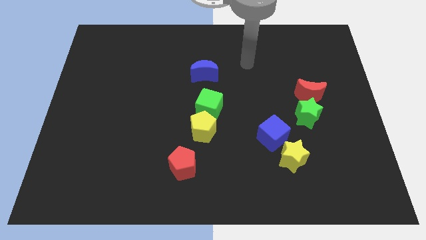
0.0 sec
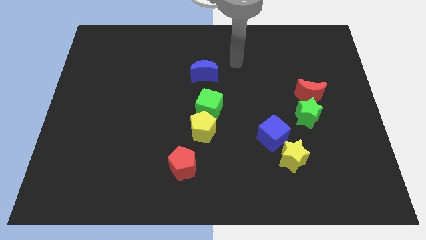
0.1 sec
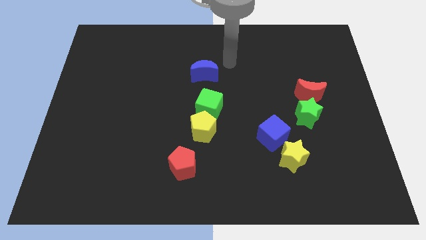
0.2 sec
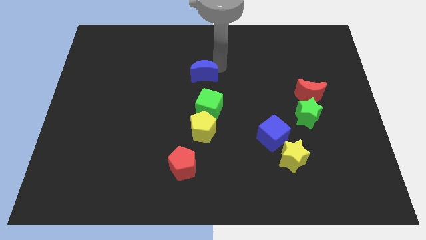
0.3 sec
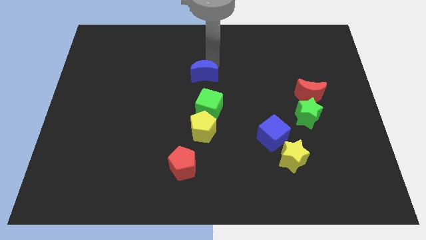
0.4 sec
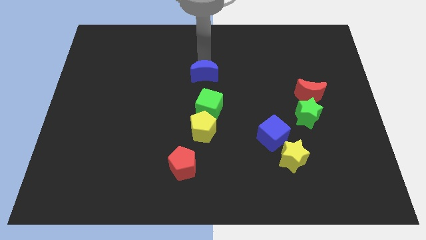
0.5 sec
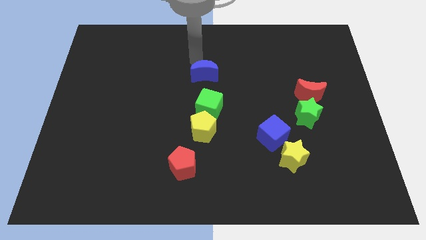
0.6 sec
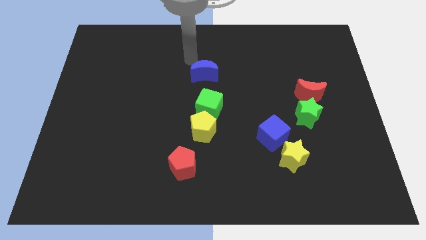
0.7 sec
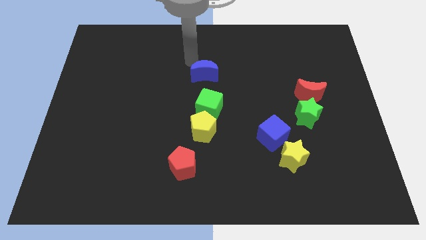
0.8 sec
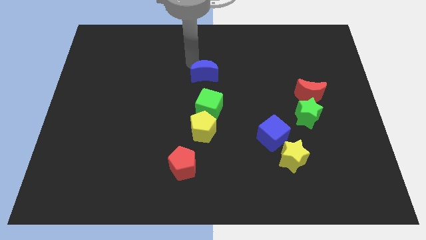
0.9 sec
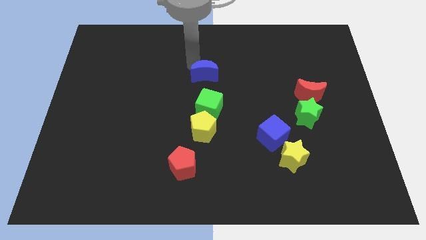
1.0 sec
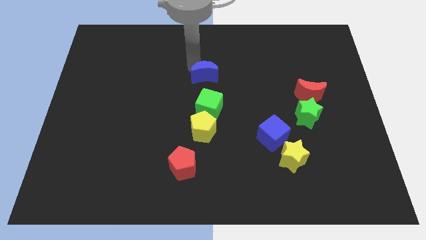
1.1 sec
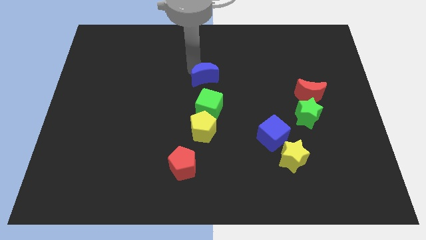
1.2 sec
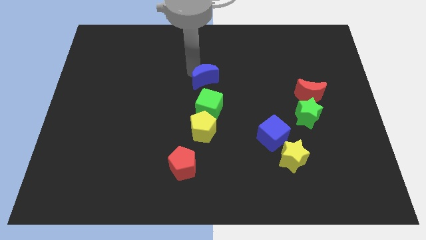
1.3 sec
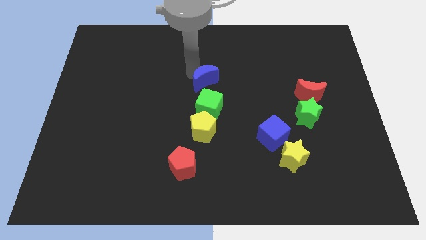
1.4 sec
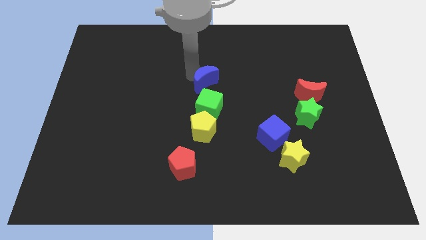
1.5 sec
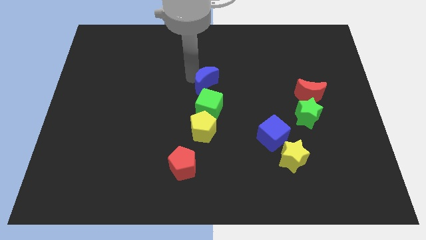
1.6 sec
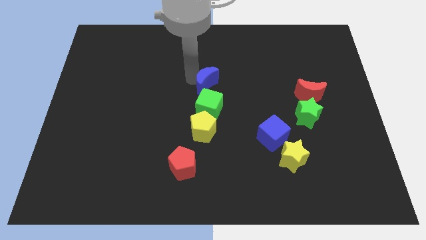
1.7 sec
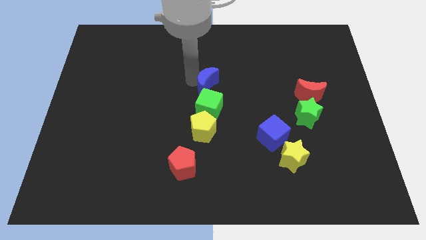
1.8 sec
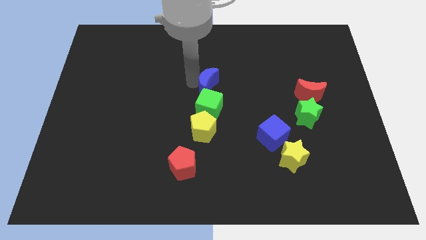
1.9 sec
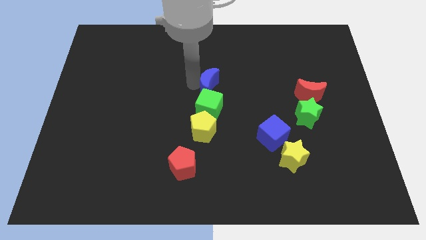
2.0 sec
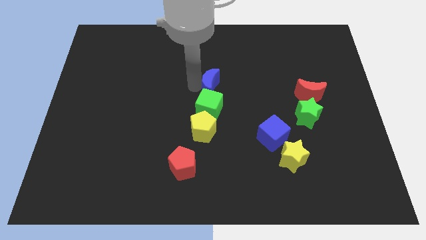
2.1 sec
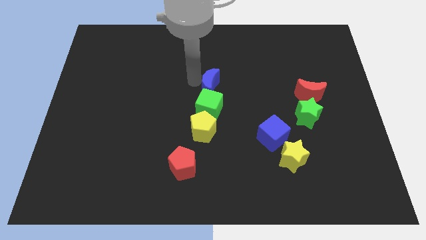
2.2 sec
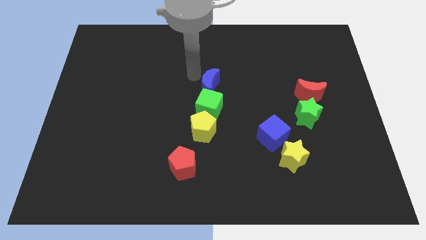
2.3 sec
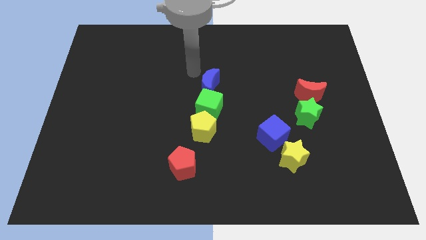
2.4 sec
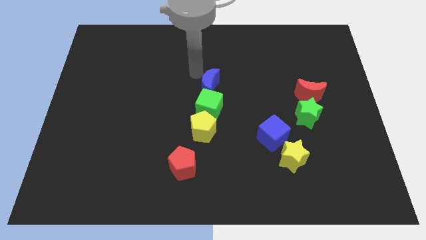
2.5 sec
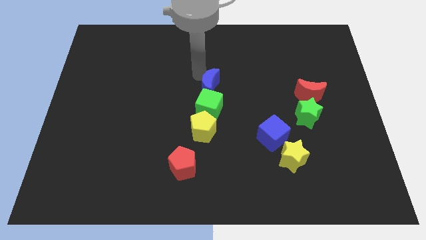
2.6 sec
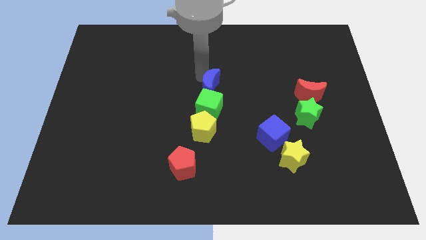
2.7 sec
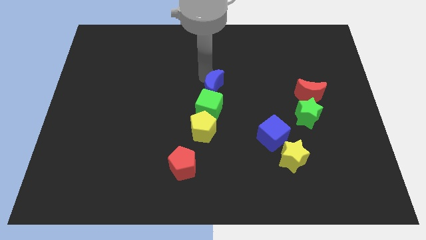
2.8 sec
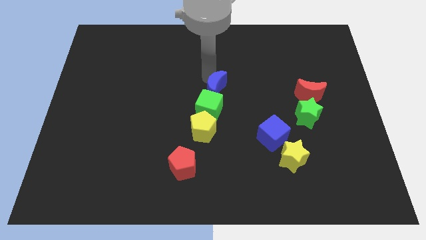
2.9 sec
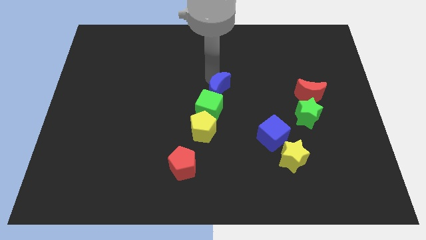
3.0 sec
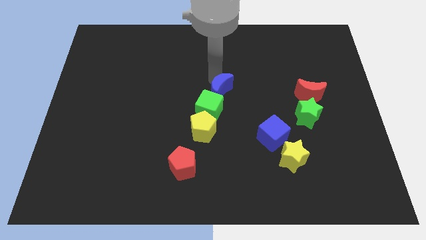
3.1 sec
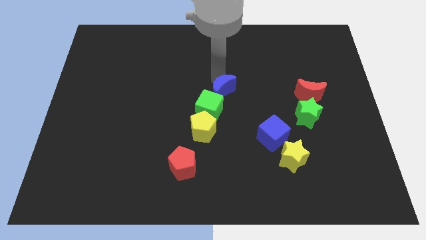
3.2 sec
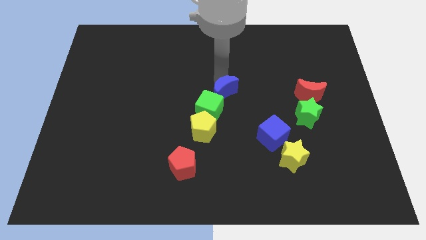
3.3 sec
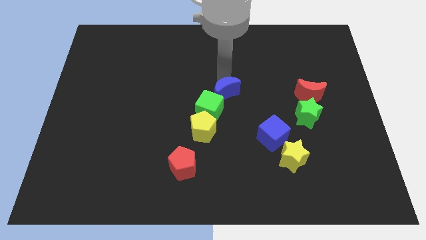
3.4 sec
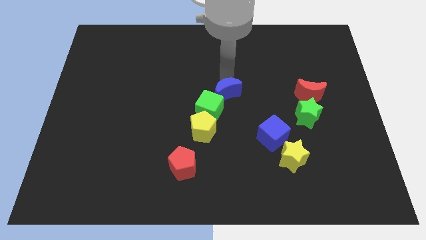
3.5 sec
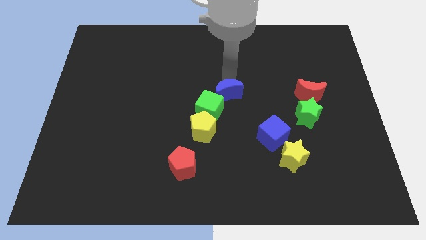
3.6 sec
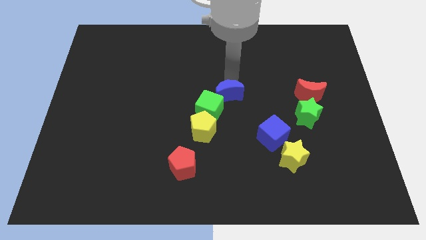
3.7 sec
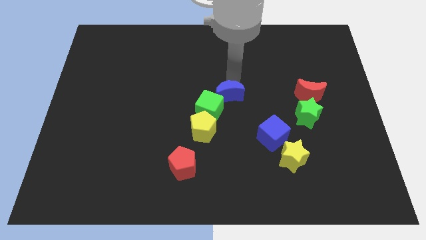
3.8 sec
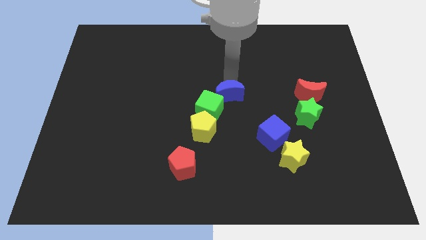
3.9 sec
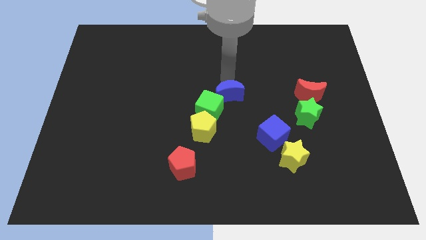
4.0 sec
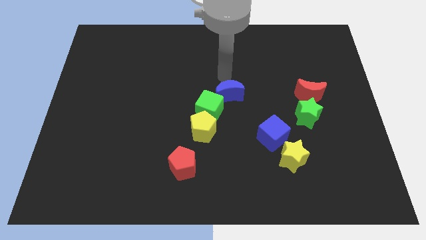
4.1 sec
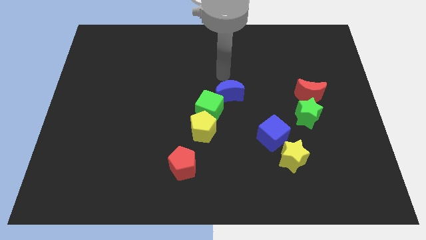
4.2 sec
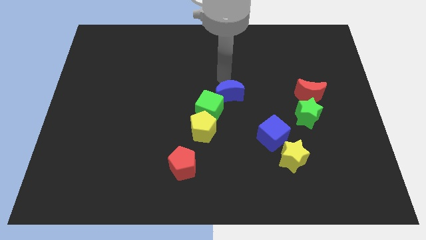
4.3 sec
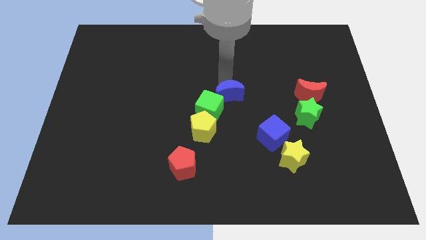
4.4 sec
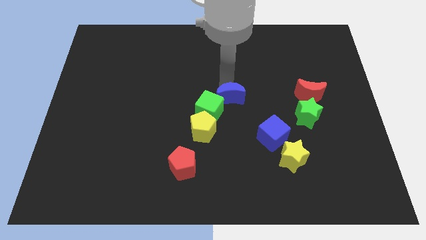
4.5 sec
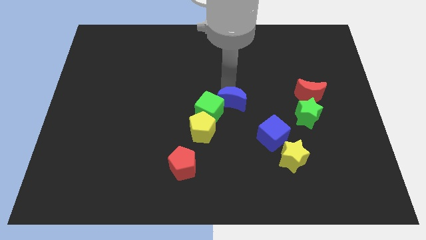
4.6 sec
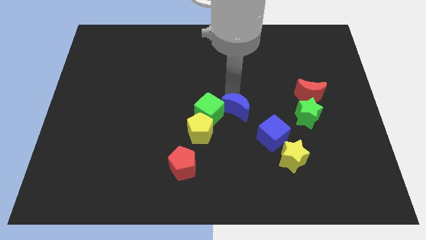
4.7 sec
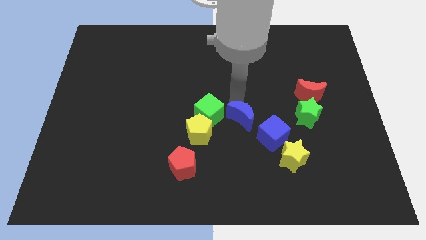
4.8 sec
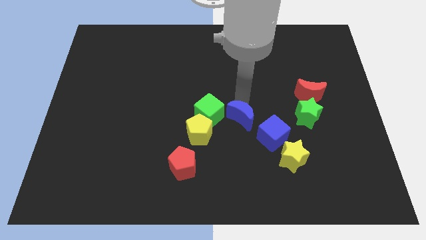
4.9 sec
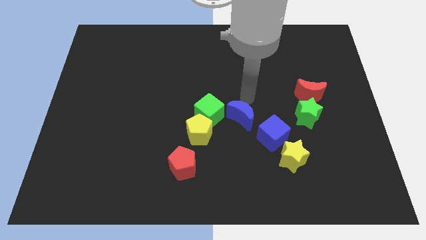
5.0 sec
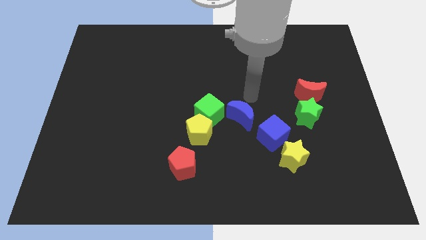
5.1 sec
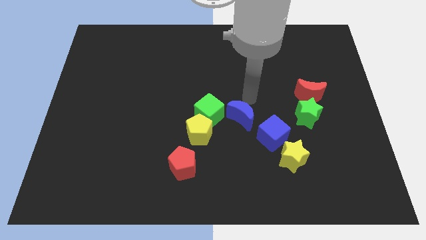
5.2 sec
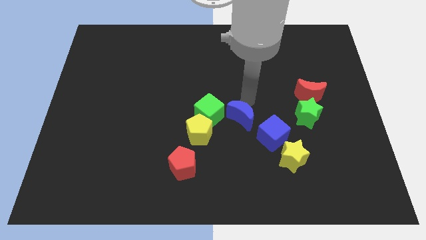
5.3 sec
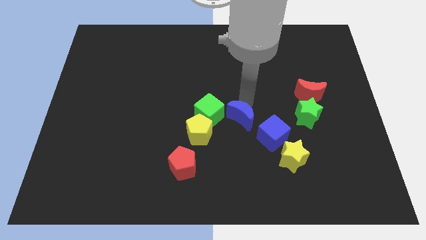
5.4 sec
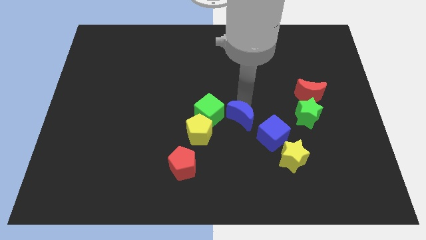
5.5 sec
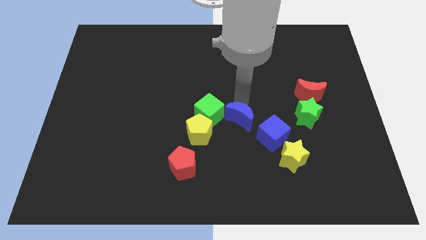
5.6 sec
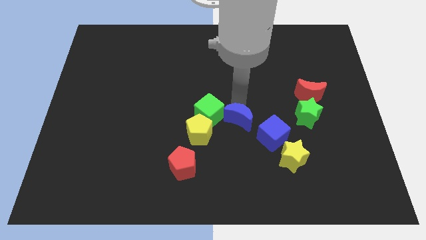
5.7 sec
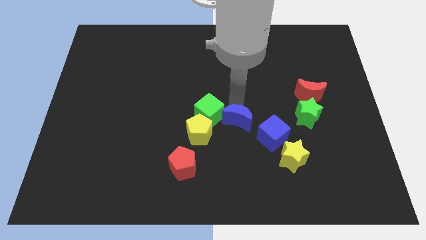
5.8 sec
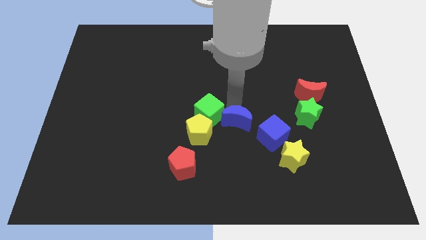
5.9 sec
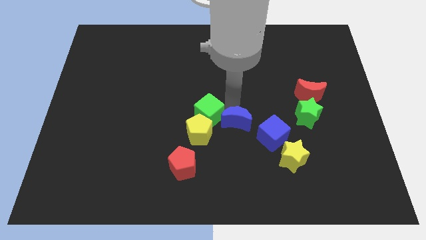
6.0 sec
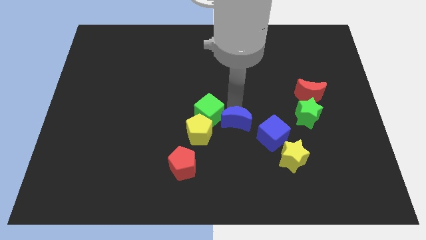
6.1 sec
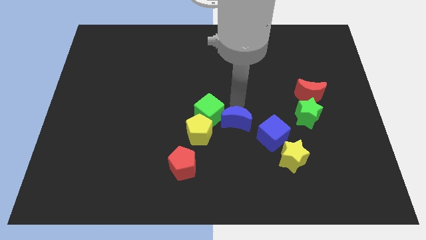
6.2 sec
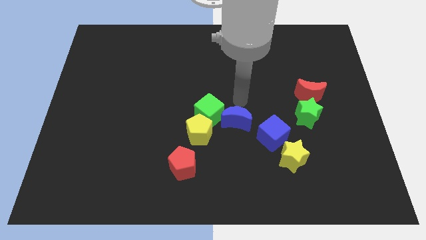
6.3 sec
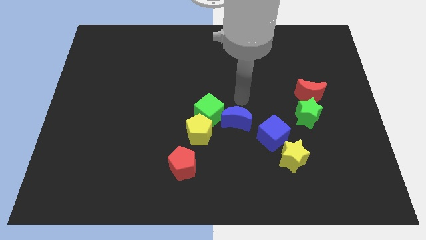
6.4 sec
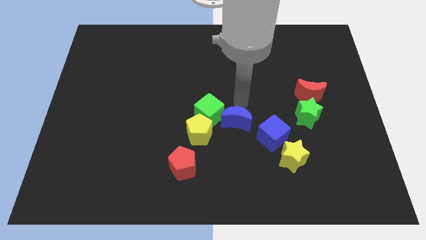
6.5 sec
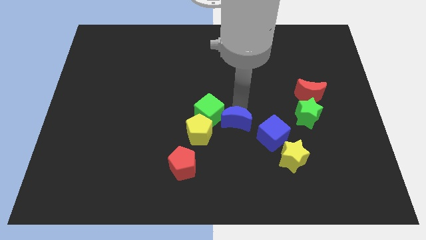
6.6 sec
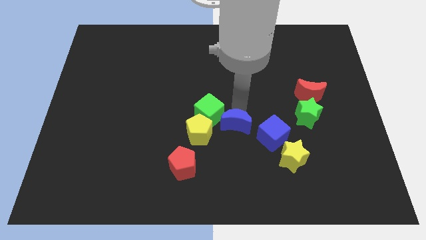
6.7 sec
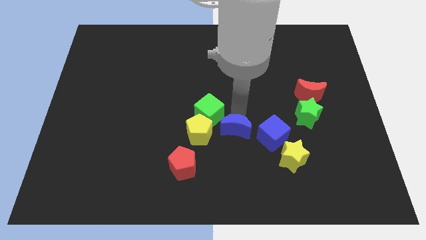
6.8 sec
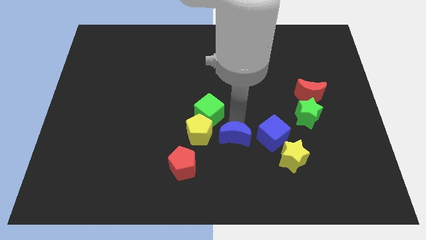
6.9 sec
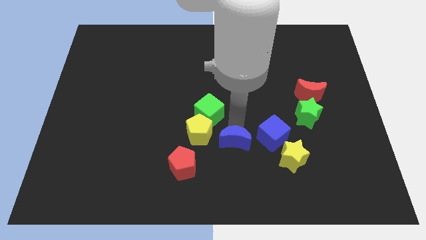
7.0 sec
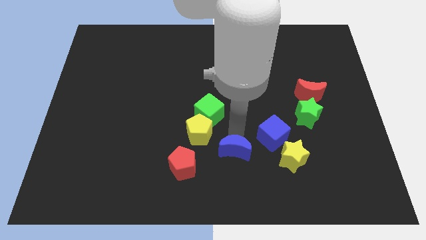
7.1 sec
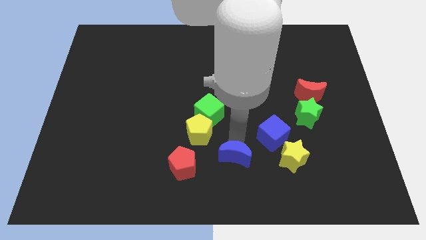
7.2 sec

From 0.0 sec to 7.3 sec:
slide the blue moon to the bottom side
